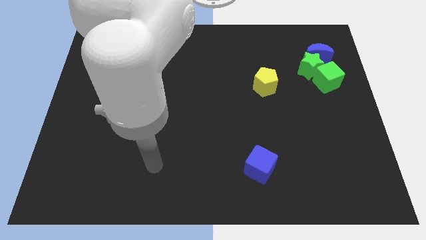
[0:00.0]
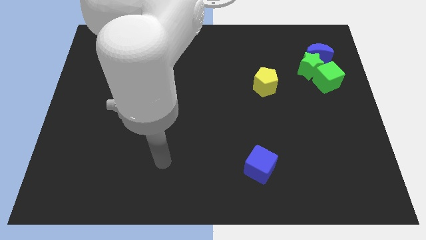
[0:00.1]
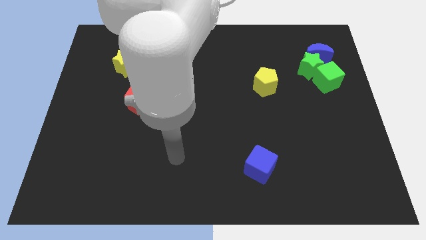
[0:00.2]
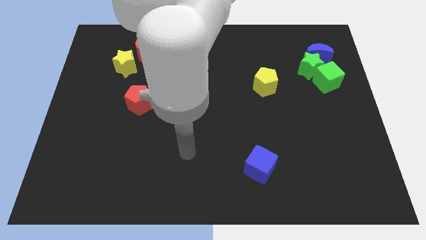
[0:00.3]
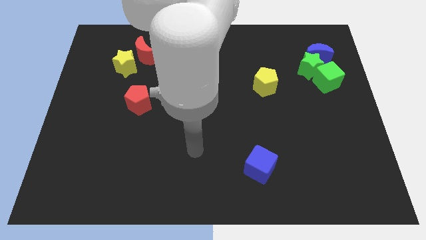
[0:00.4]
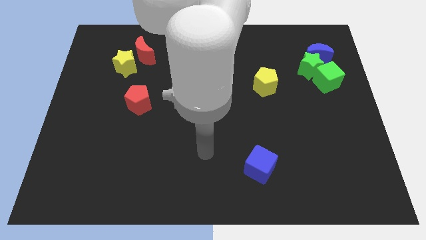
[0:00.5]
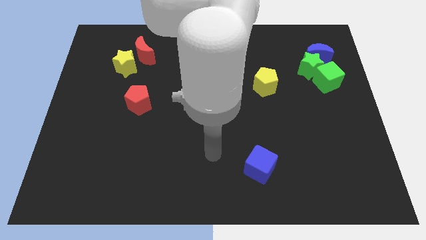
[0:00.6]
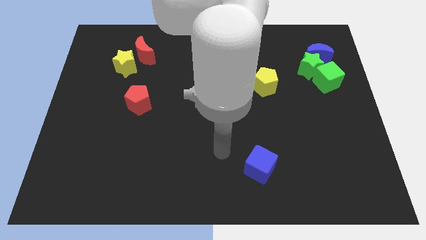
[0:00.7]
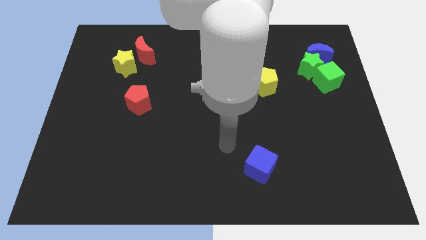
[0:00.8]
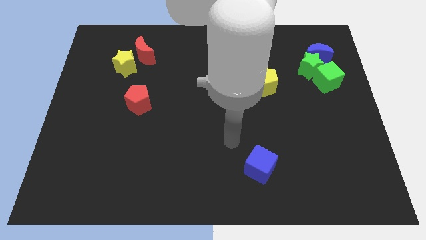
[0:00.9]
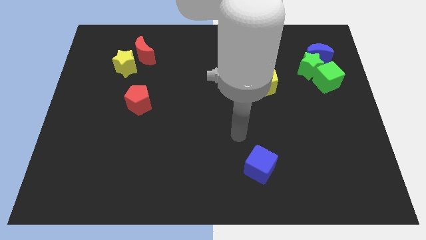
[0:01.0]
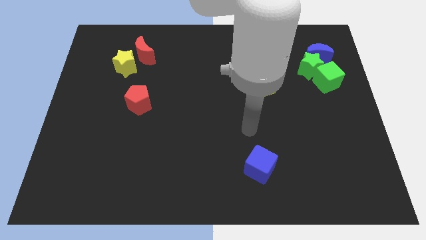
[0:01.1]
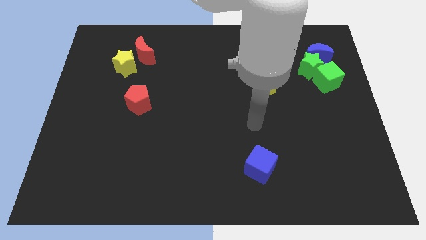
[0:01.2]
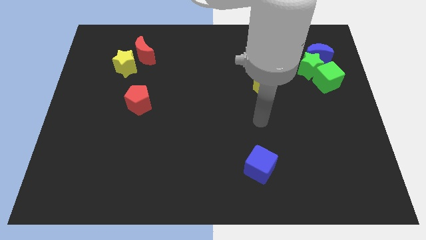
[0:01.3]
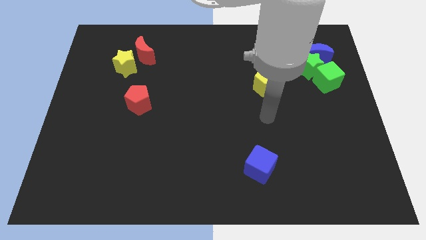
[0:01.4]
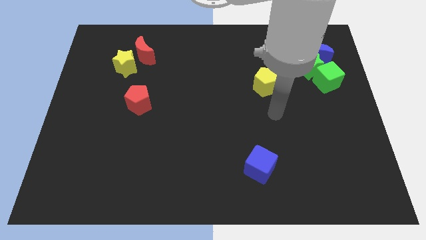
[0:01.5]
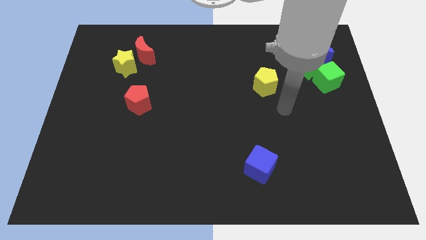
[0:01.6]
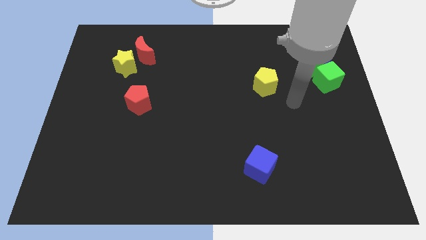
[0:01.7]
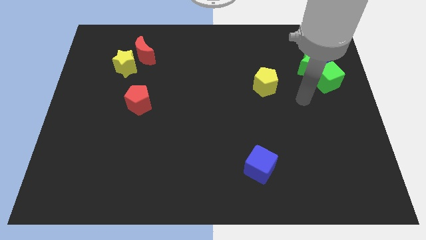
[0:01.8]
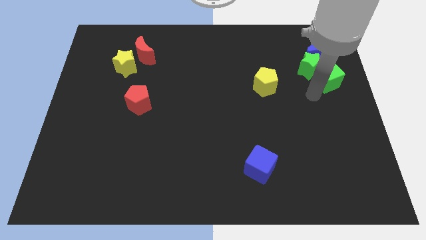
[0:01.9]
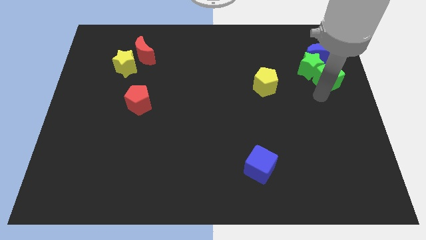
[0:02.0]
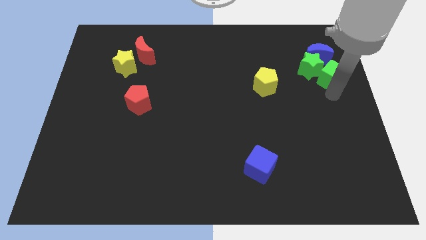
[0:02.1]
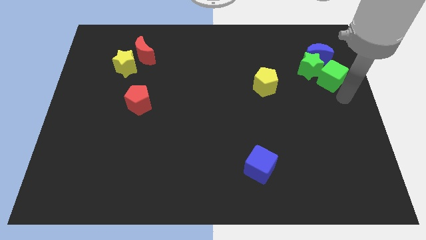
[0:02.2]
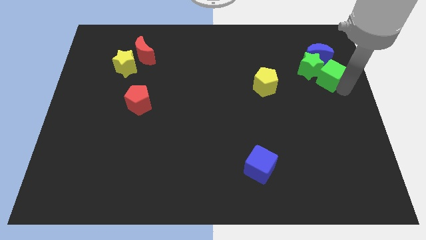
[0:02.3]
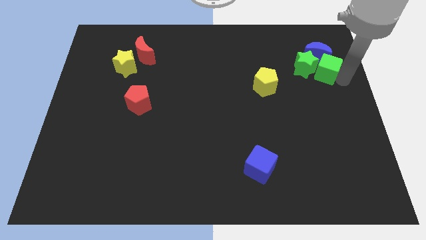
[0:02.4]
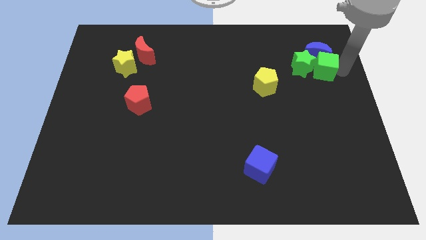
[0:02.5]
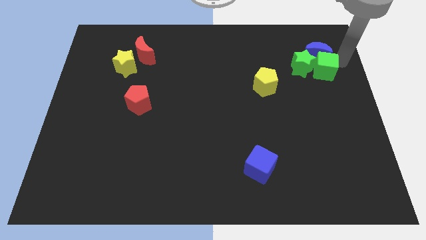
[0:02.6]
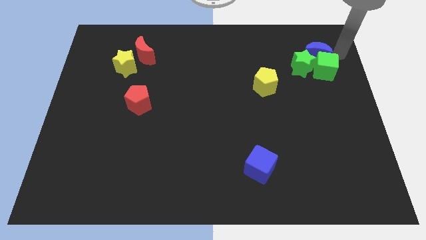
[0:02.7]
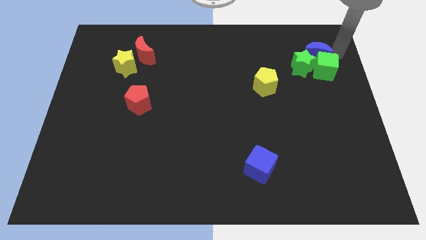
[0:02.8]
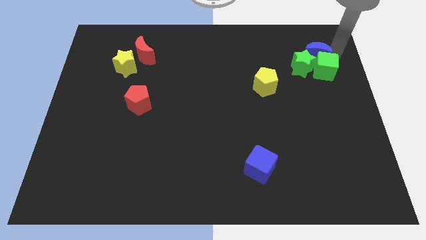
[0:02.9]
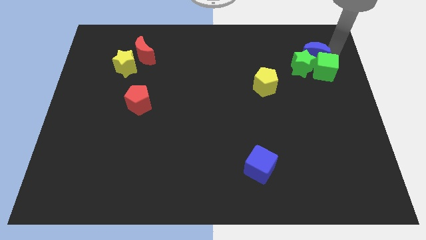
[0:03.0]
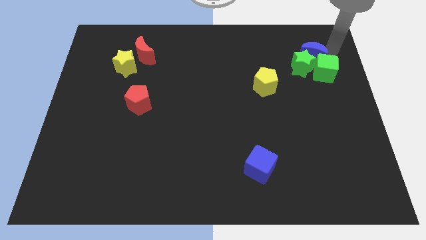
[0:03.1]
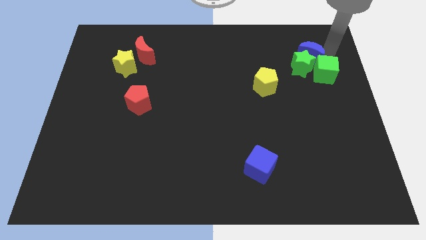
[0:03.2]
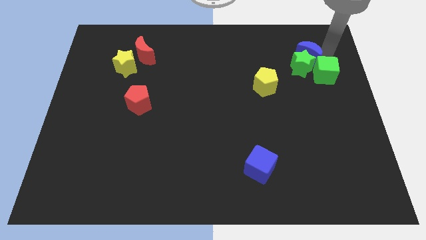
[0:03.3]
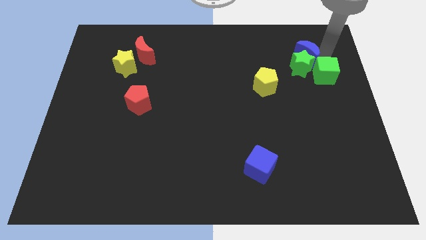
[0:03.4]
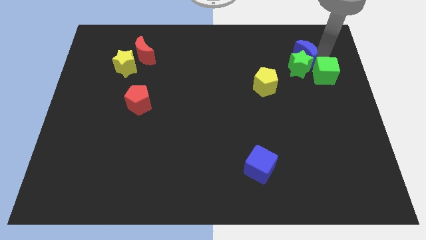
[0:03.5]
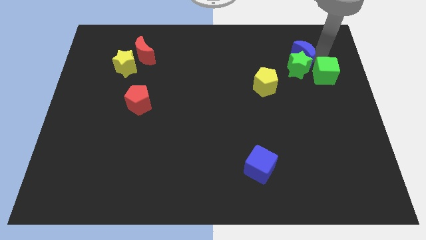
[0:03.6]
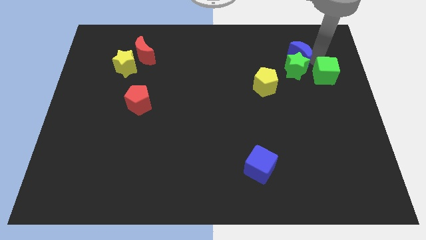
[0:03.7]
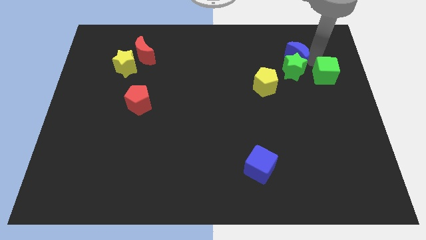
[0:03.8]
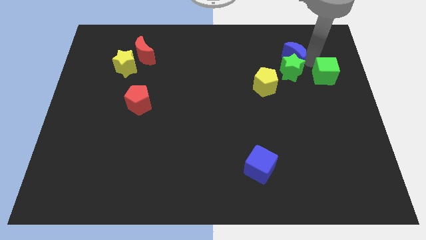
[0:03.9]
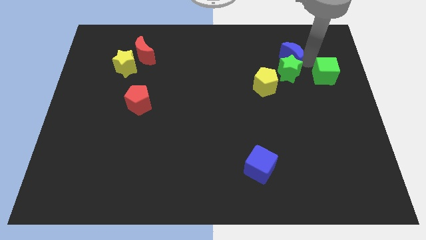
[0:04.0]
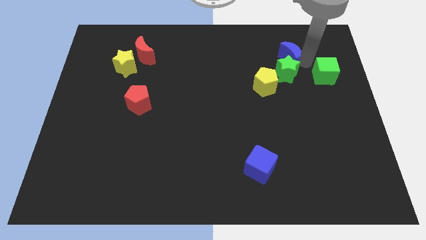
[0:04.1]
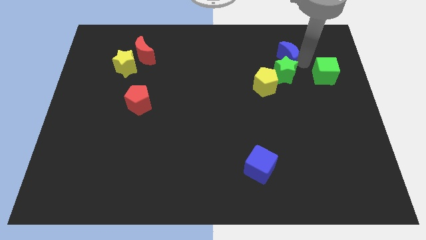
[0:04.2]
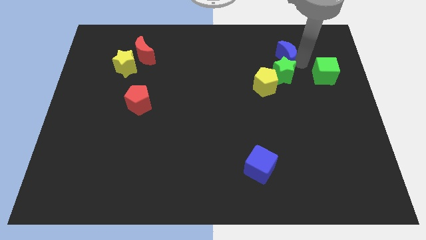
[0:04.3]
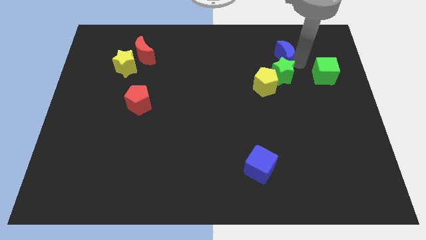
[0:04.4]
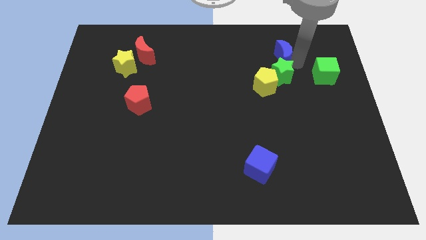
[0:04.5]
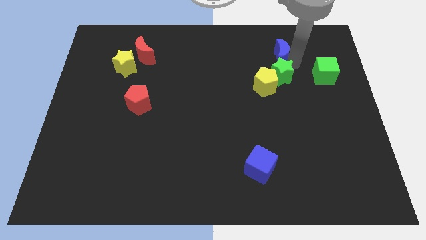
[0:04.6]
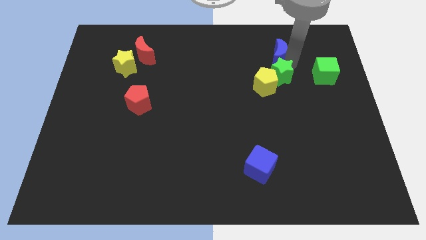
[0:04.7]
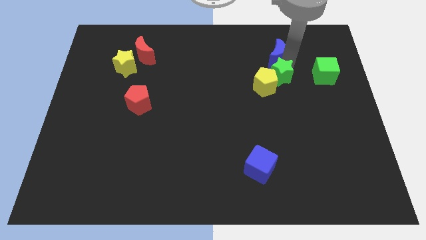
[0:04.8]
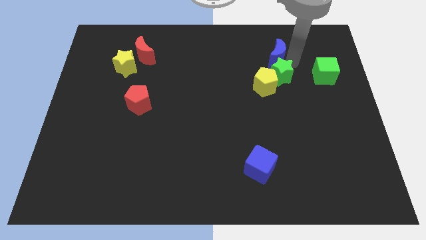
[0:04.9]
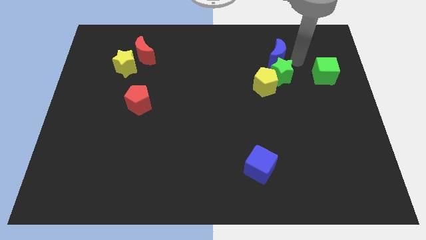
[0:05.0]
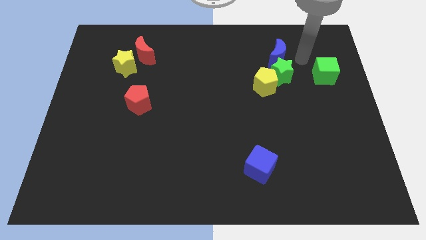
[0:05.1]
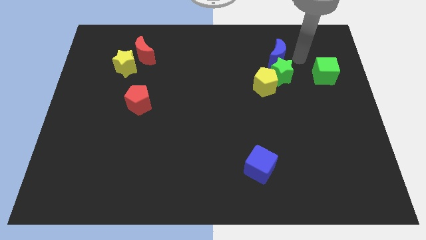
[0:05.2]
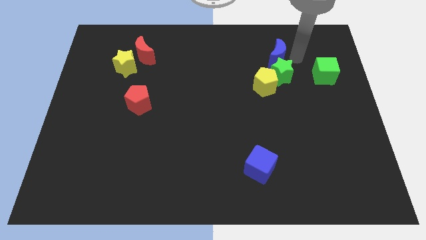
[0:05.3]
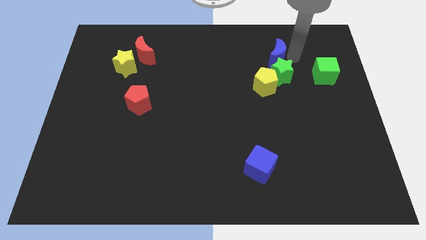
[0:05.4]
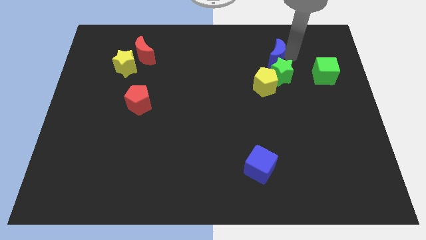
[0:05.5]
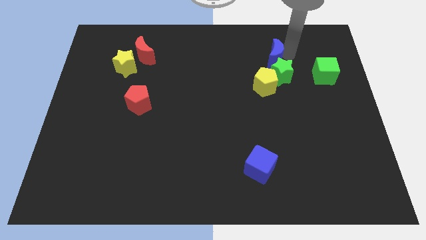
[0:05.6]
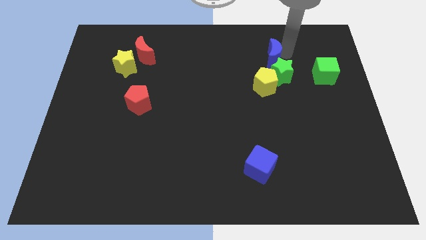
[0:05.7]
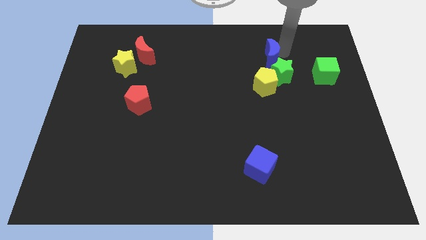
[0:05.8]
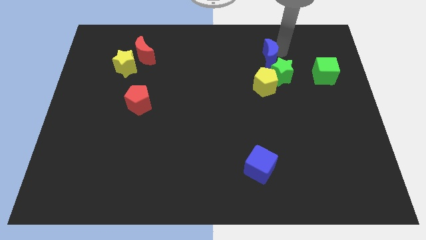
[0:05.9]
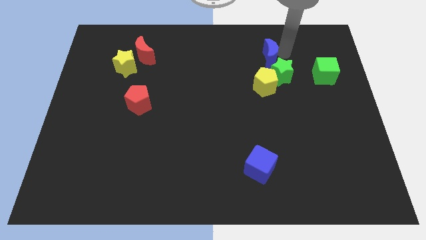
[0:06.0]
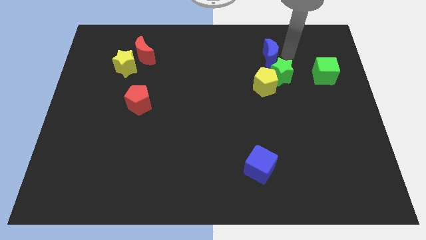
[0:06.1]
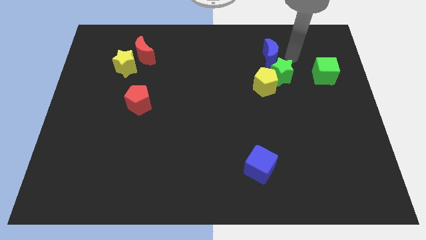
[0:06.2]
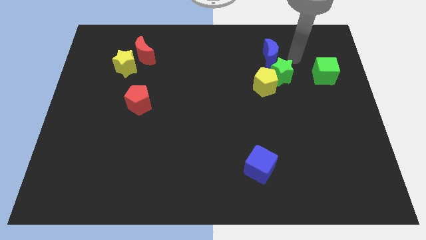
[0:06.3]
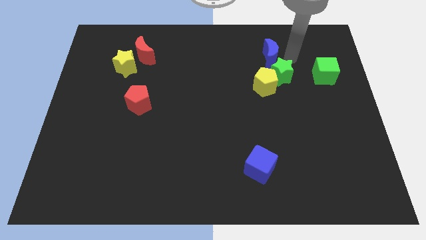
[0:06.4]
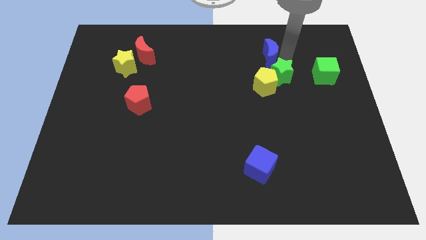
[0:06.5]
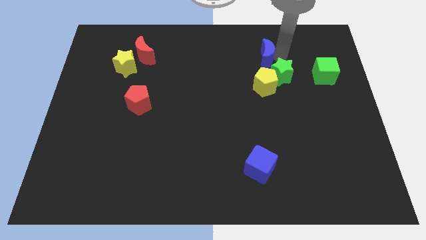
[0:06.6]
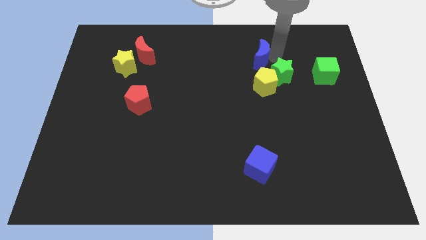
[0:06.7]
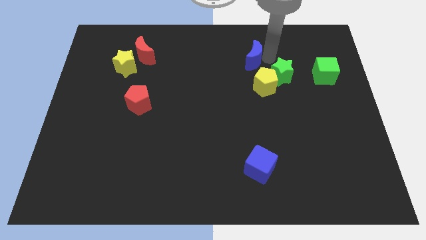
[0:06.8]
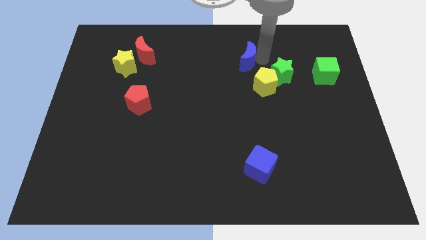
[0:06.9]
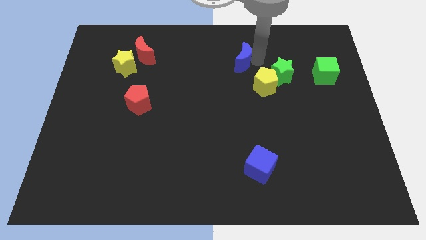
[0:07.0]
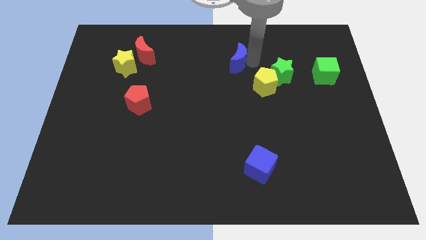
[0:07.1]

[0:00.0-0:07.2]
slide the blue moon to the left

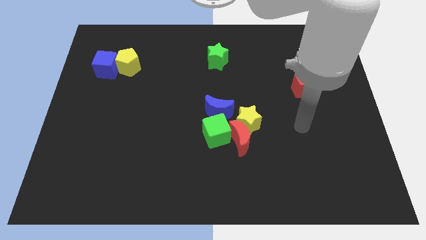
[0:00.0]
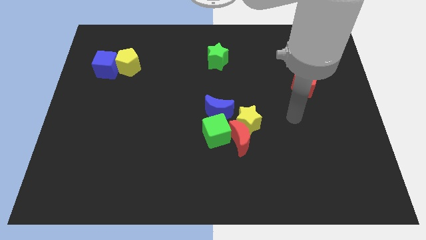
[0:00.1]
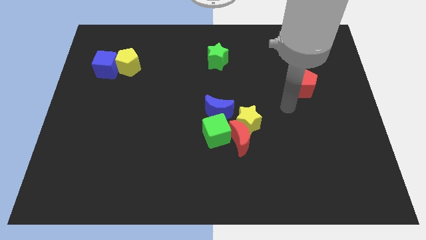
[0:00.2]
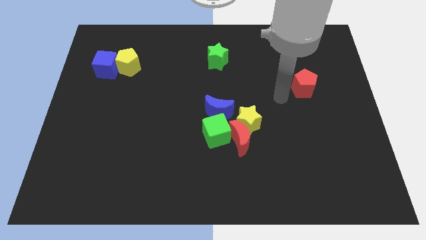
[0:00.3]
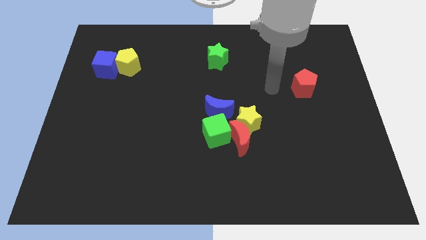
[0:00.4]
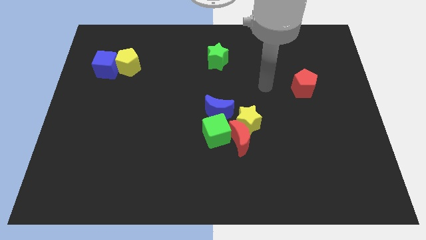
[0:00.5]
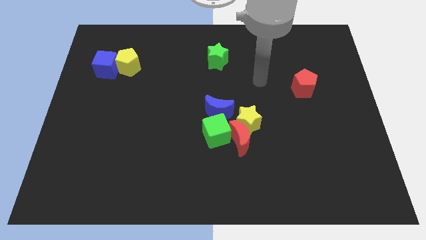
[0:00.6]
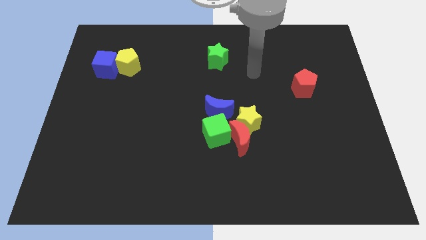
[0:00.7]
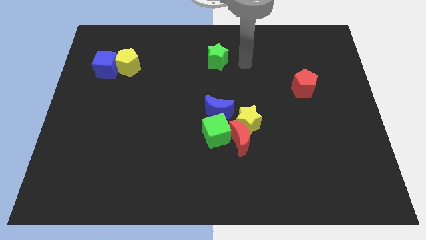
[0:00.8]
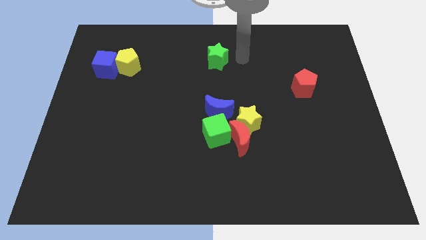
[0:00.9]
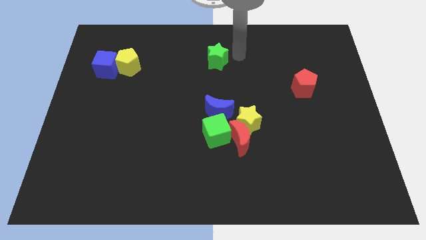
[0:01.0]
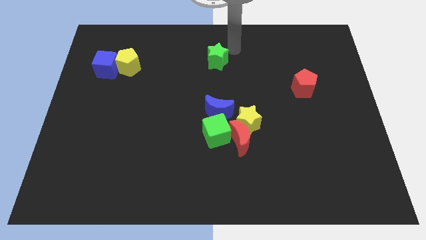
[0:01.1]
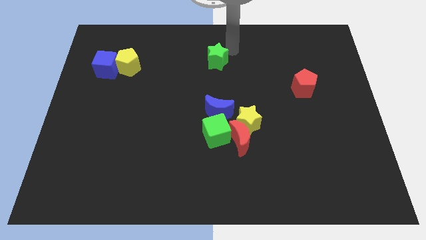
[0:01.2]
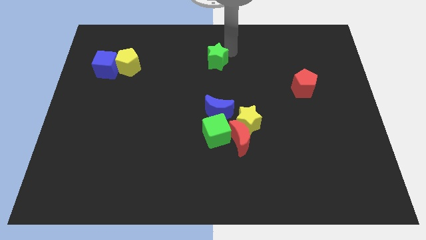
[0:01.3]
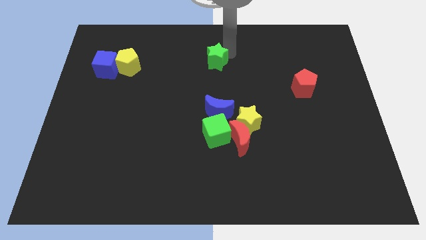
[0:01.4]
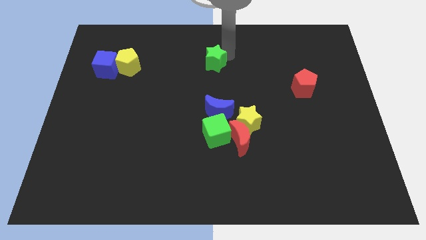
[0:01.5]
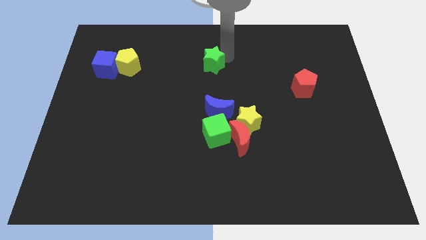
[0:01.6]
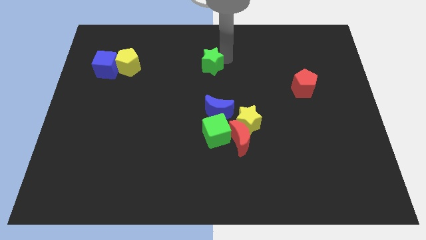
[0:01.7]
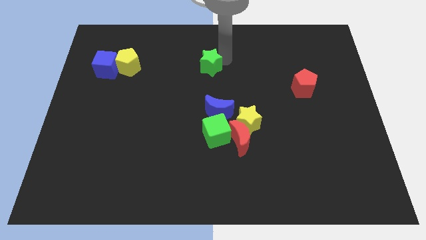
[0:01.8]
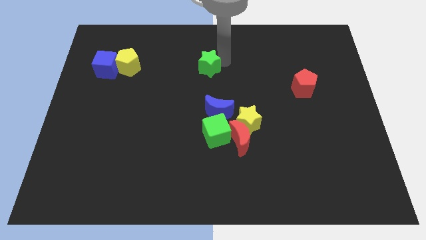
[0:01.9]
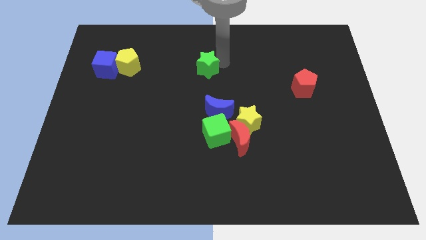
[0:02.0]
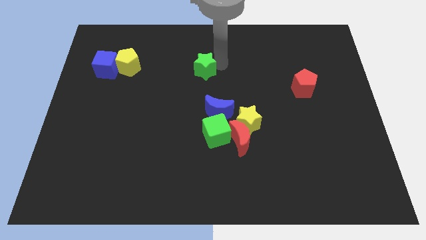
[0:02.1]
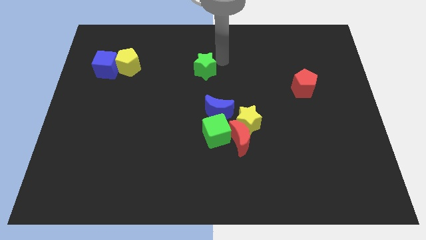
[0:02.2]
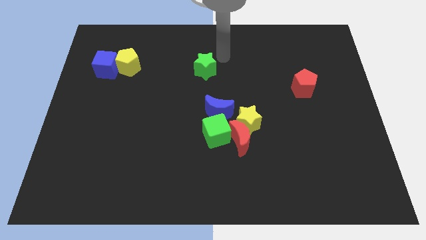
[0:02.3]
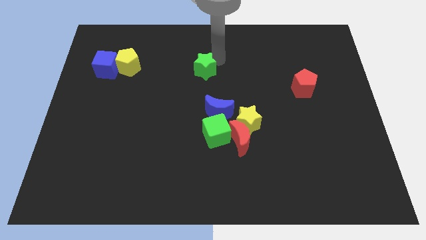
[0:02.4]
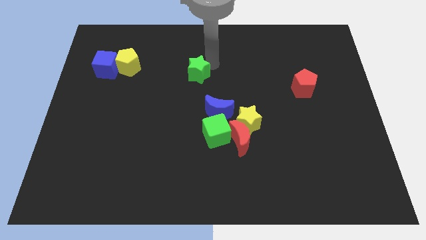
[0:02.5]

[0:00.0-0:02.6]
push the green star slightly downwards and to the left
